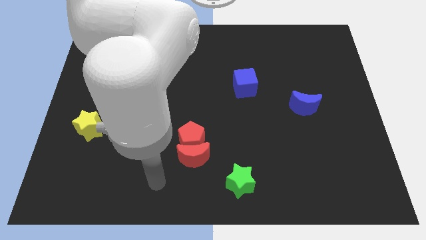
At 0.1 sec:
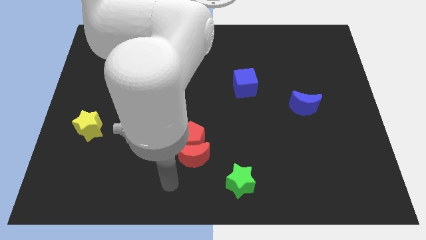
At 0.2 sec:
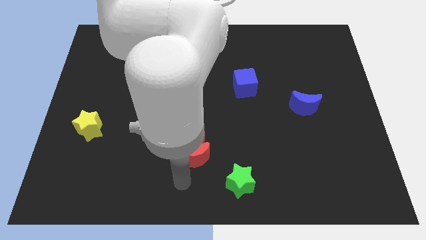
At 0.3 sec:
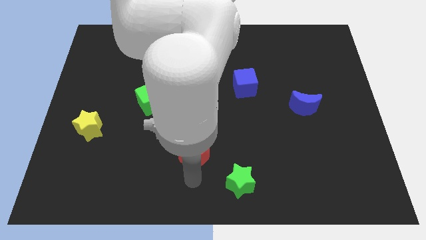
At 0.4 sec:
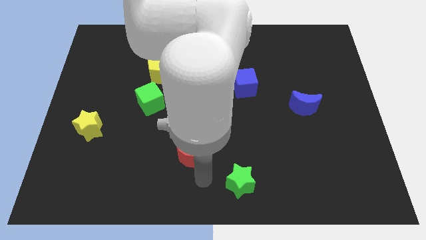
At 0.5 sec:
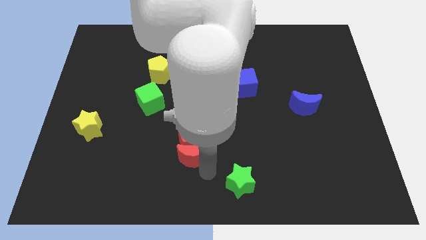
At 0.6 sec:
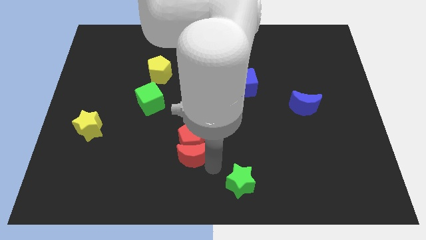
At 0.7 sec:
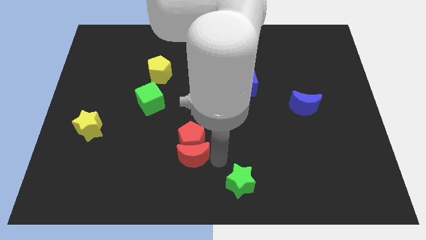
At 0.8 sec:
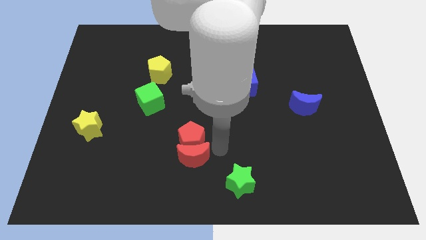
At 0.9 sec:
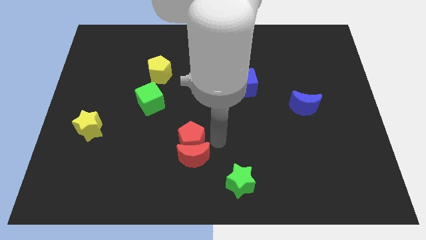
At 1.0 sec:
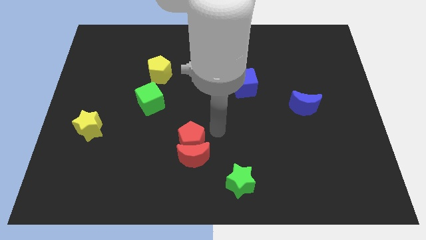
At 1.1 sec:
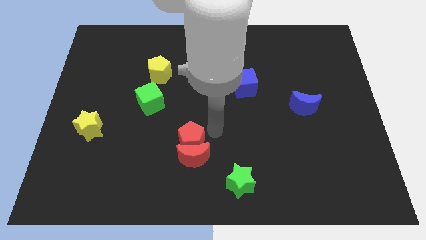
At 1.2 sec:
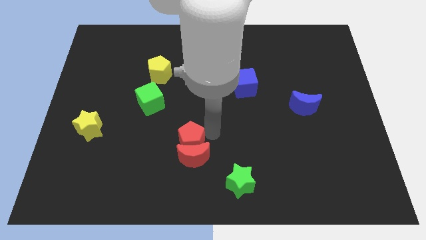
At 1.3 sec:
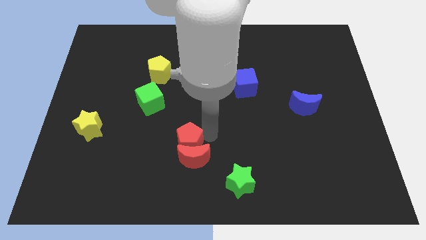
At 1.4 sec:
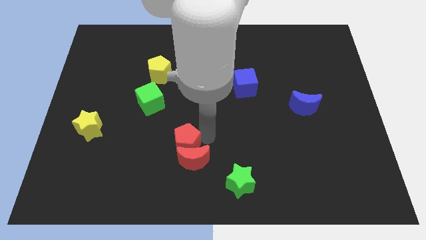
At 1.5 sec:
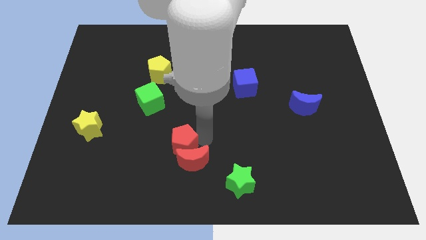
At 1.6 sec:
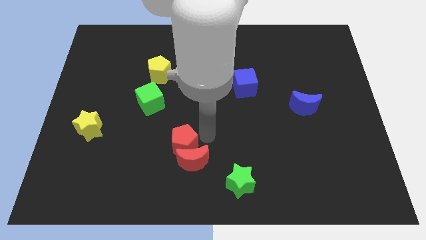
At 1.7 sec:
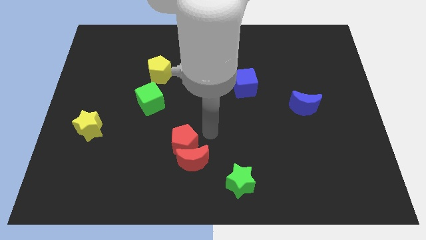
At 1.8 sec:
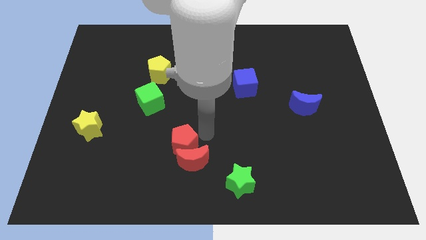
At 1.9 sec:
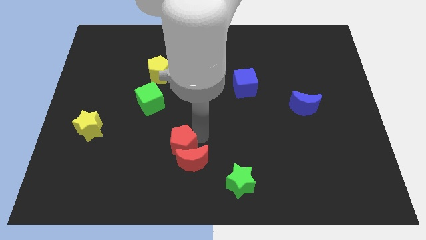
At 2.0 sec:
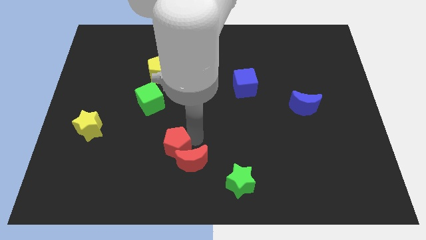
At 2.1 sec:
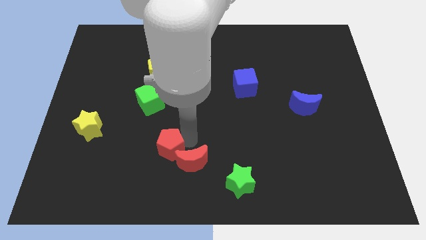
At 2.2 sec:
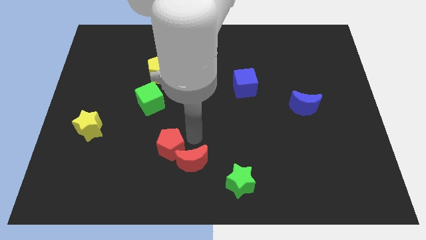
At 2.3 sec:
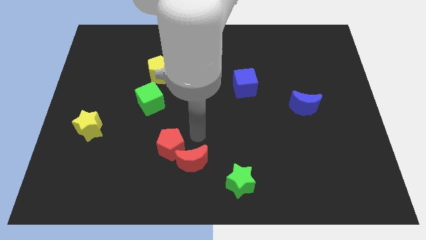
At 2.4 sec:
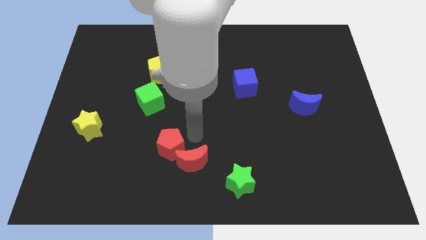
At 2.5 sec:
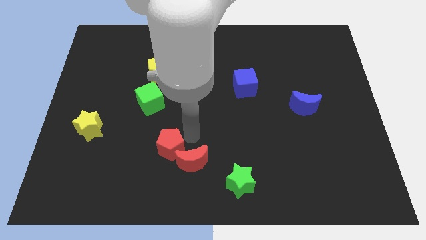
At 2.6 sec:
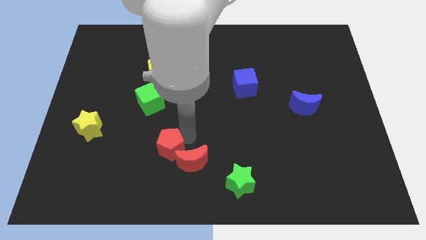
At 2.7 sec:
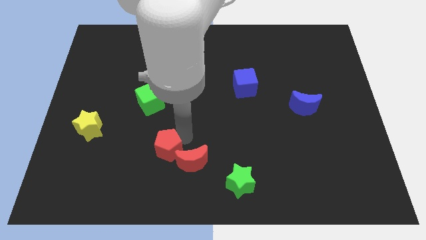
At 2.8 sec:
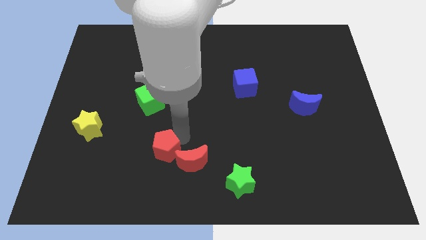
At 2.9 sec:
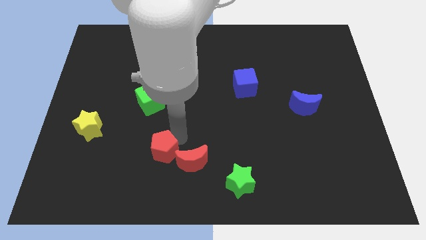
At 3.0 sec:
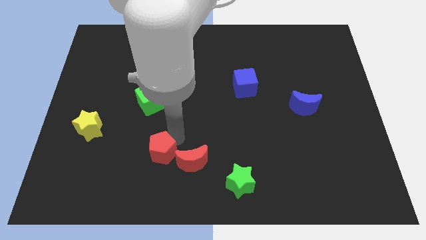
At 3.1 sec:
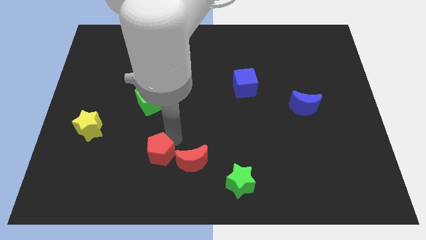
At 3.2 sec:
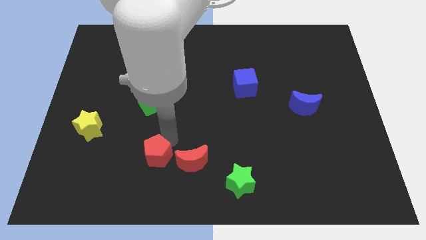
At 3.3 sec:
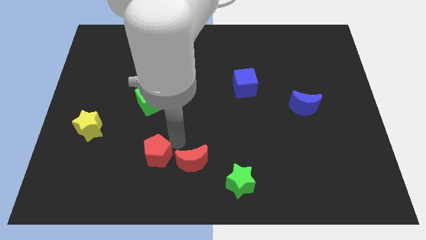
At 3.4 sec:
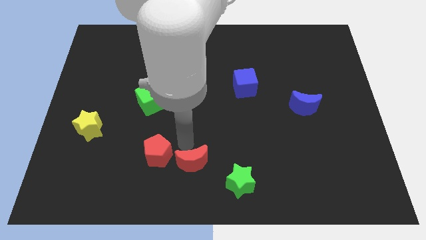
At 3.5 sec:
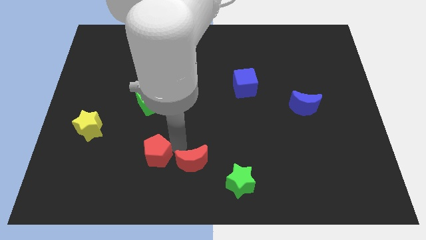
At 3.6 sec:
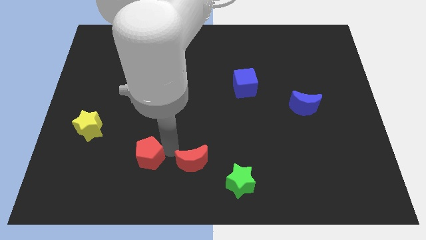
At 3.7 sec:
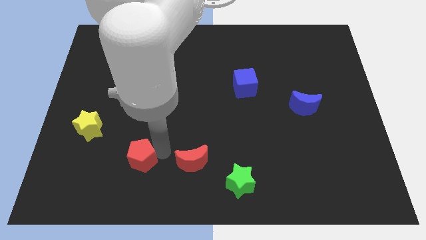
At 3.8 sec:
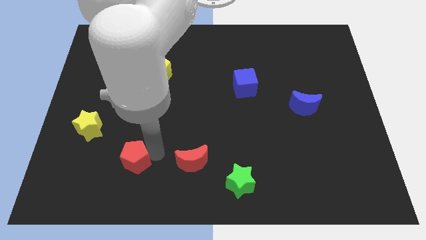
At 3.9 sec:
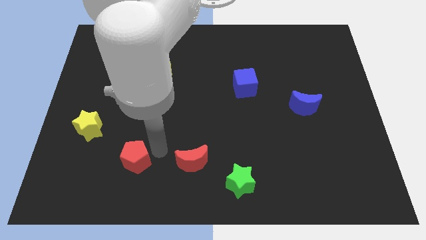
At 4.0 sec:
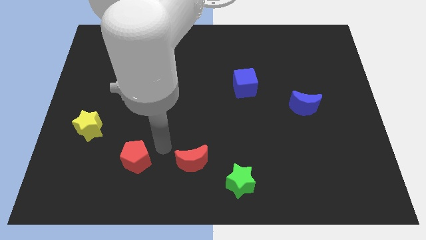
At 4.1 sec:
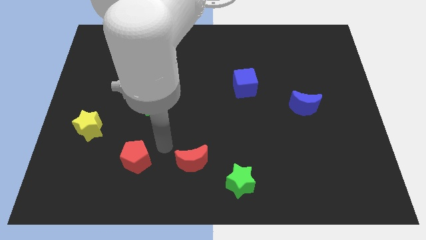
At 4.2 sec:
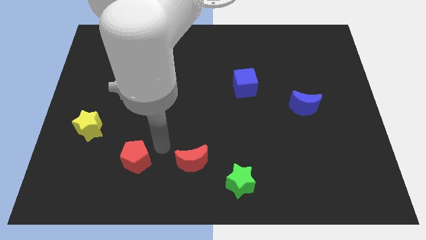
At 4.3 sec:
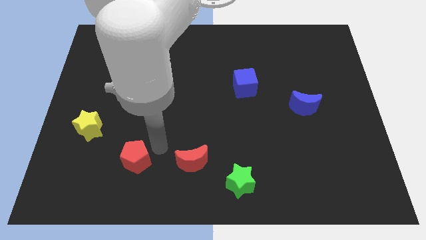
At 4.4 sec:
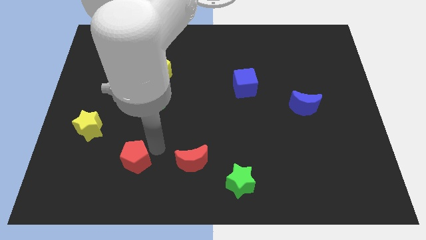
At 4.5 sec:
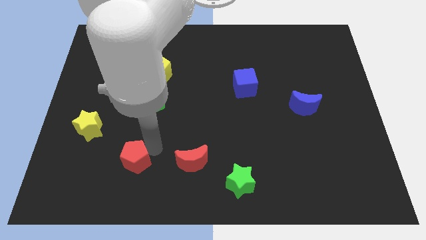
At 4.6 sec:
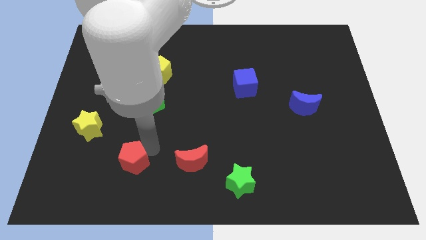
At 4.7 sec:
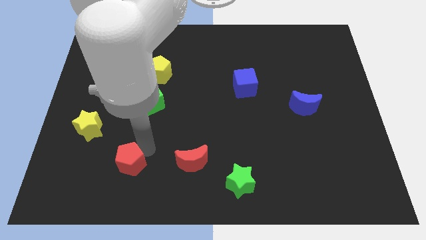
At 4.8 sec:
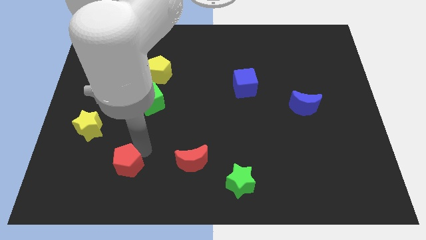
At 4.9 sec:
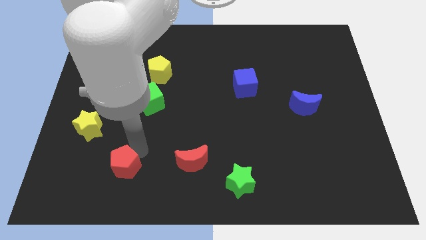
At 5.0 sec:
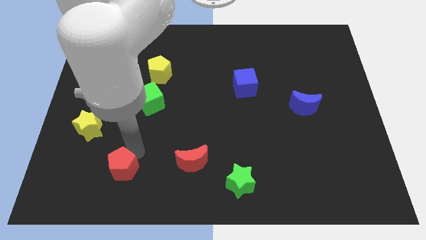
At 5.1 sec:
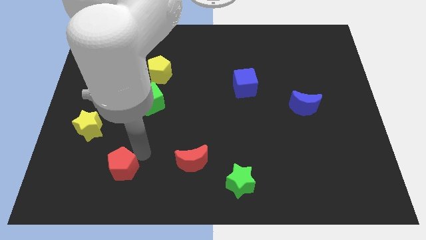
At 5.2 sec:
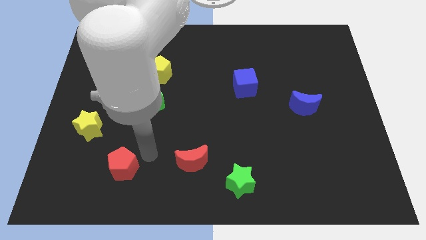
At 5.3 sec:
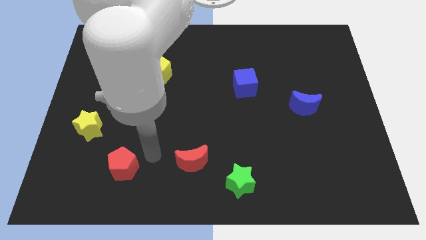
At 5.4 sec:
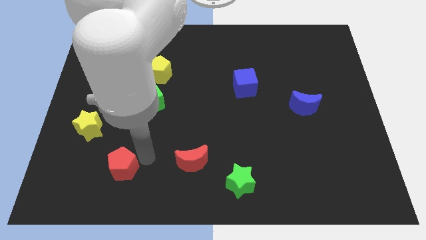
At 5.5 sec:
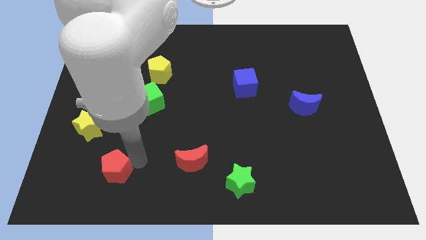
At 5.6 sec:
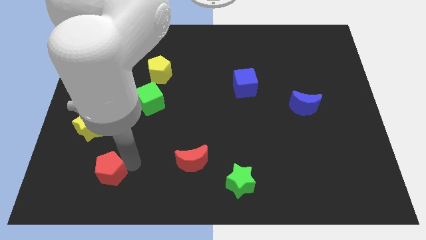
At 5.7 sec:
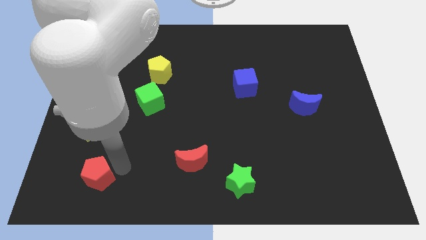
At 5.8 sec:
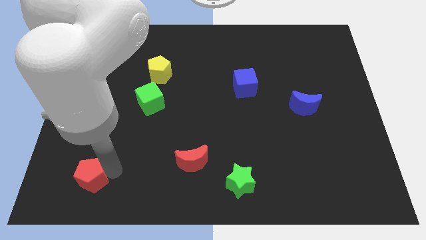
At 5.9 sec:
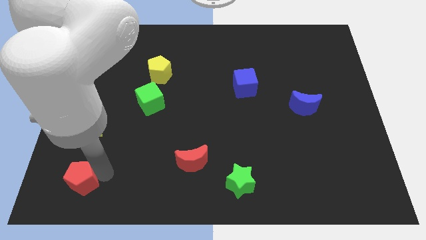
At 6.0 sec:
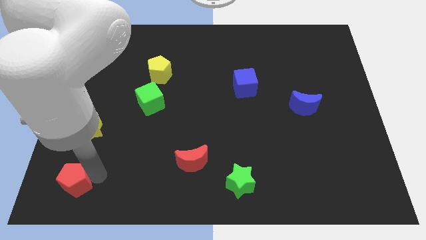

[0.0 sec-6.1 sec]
move the red pentagon to the bottom left
